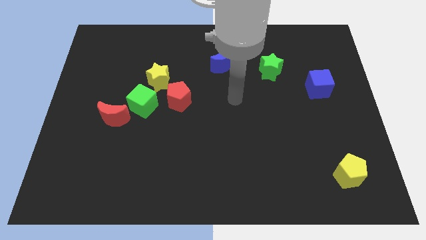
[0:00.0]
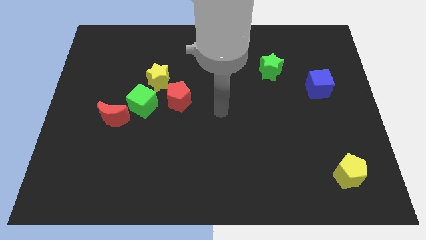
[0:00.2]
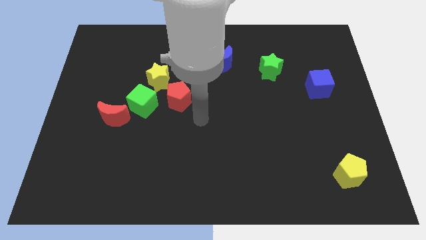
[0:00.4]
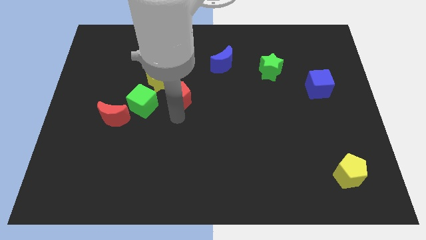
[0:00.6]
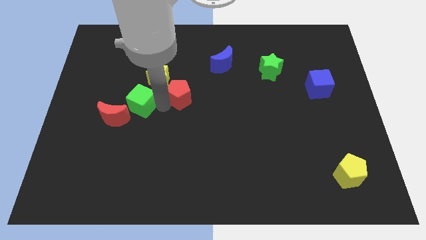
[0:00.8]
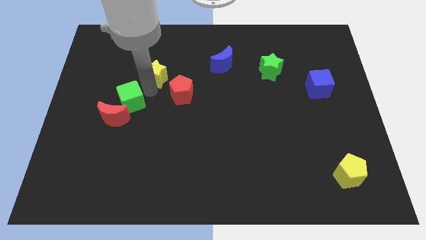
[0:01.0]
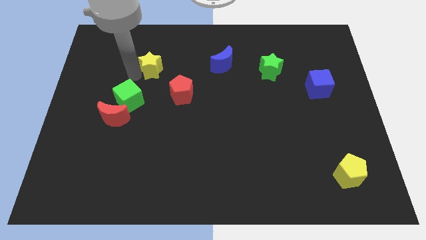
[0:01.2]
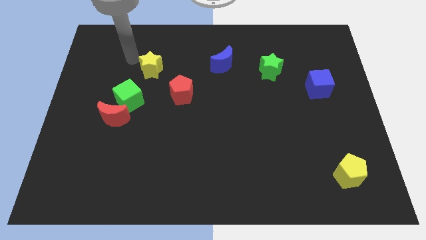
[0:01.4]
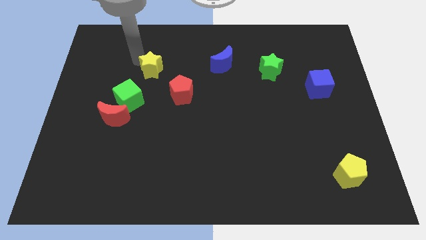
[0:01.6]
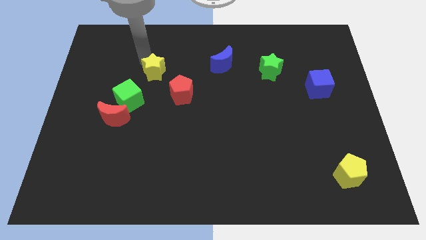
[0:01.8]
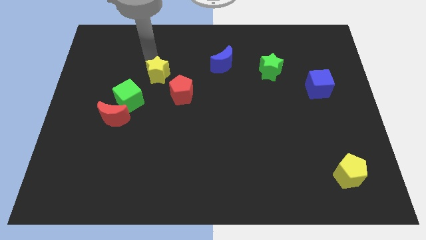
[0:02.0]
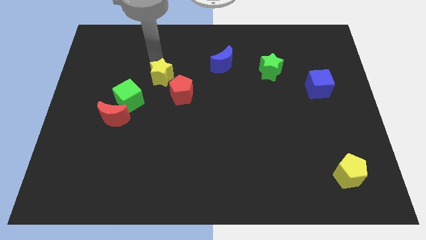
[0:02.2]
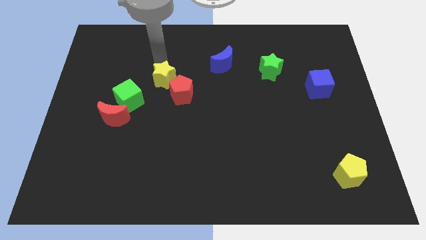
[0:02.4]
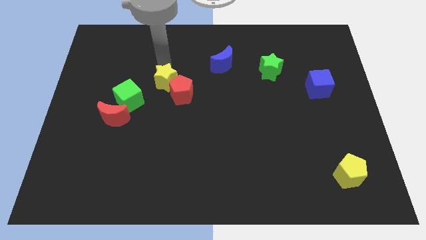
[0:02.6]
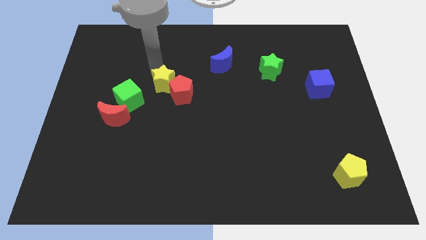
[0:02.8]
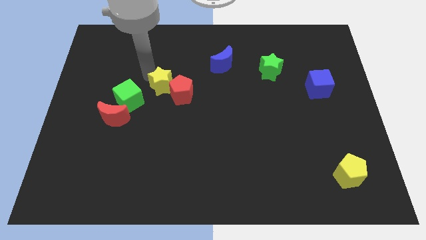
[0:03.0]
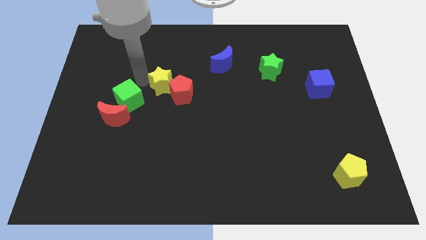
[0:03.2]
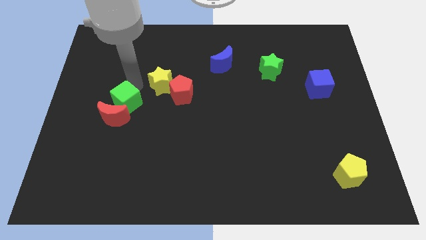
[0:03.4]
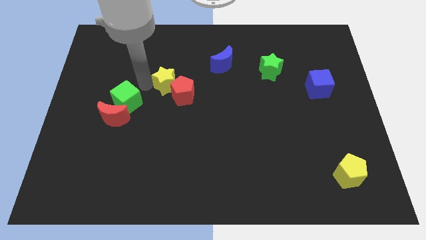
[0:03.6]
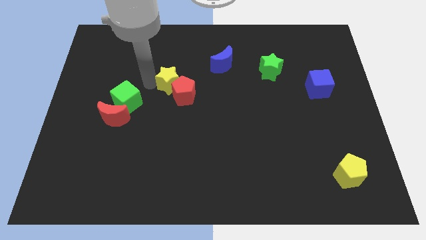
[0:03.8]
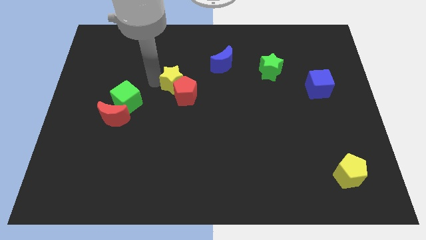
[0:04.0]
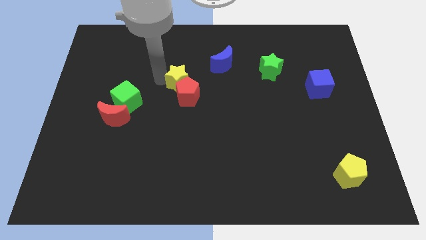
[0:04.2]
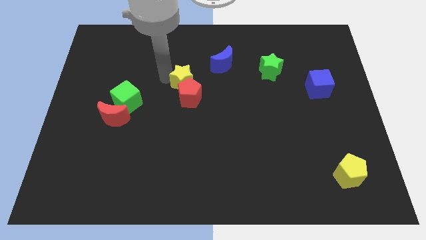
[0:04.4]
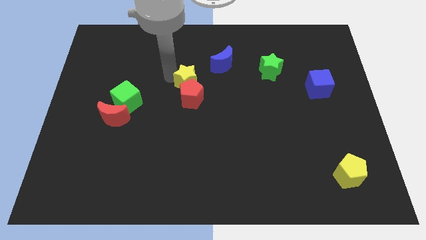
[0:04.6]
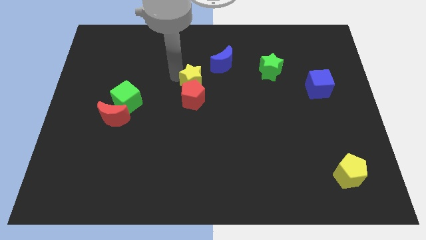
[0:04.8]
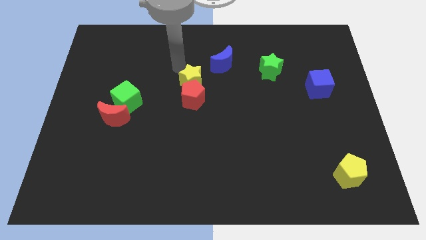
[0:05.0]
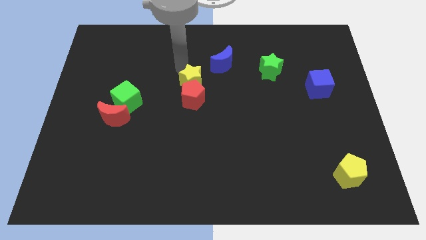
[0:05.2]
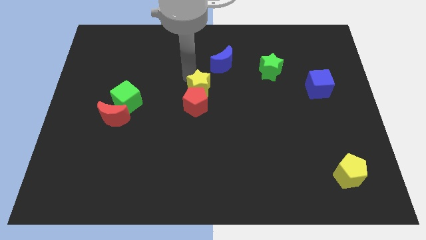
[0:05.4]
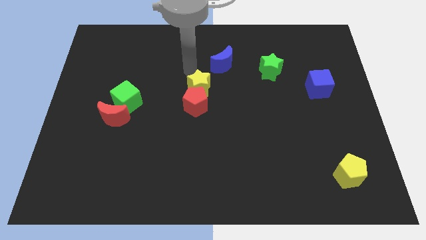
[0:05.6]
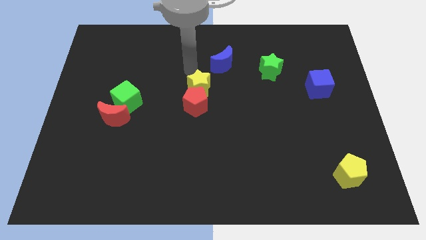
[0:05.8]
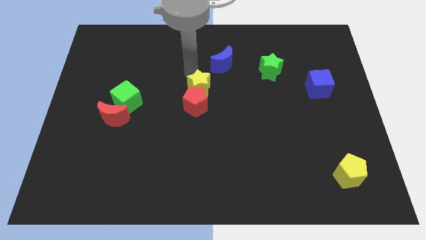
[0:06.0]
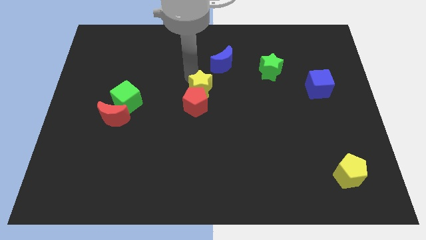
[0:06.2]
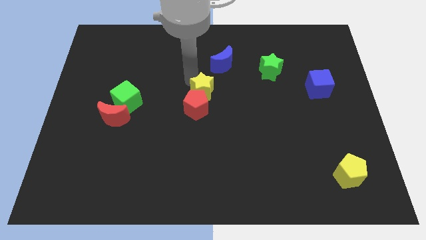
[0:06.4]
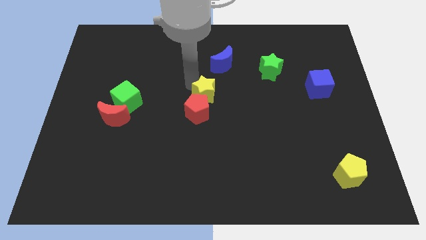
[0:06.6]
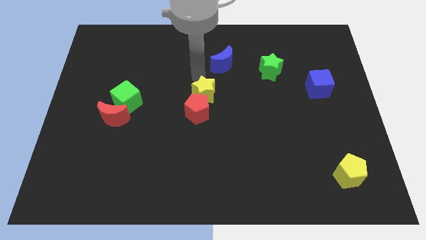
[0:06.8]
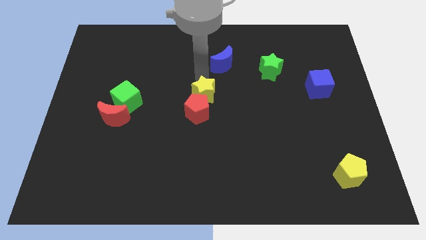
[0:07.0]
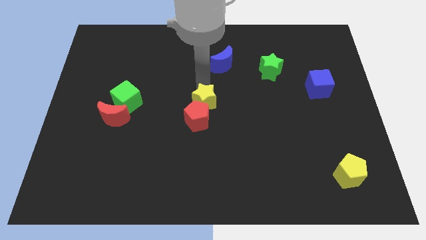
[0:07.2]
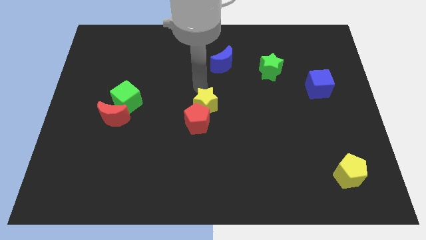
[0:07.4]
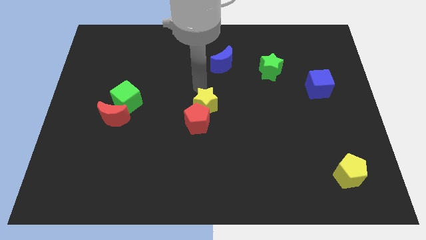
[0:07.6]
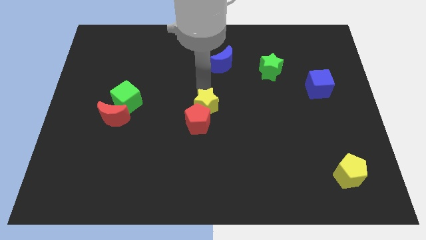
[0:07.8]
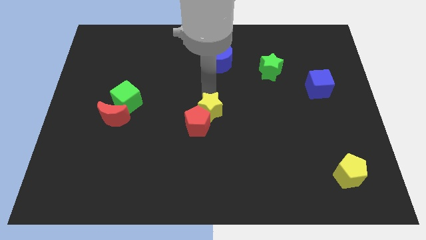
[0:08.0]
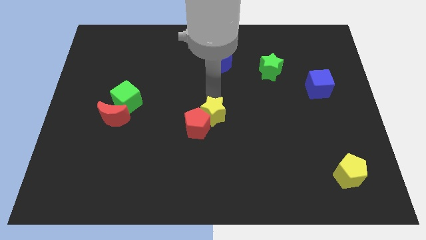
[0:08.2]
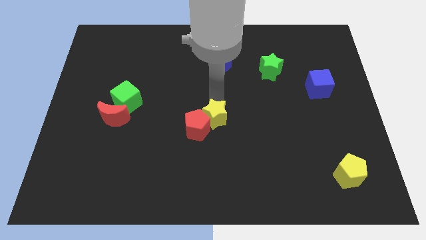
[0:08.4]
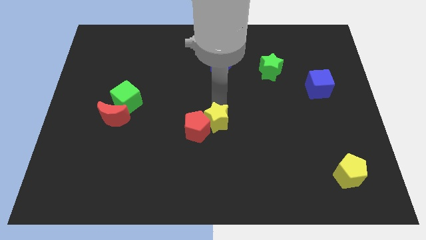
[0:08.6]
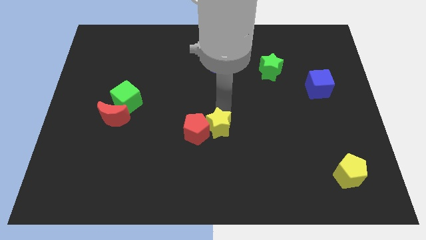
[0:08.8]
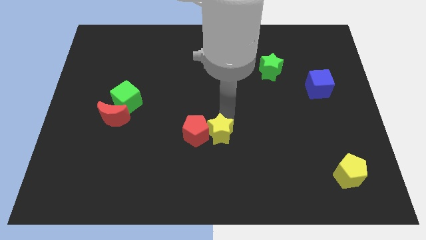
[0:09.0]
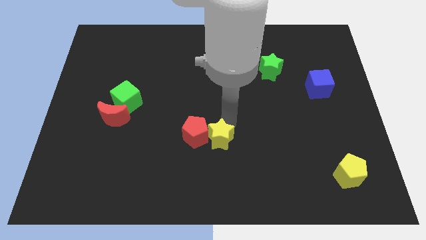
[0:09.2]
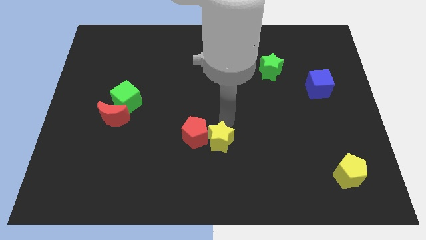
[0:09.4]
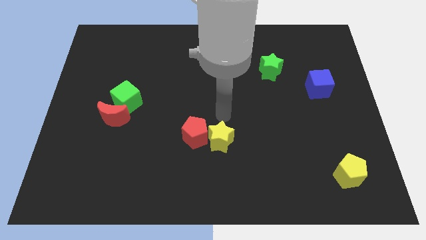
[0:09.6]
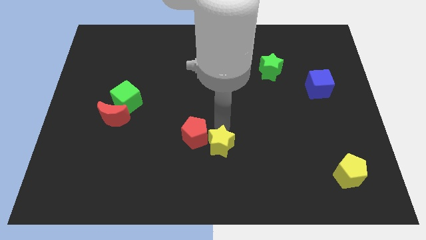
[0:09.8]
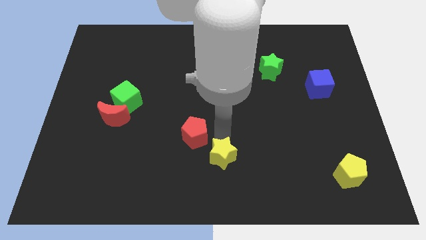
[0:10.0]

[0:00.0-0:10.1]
put the yellow star to the bottom side

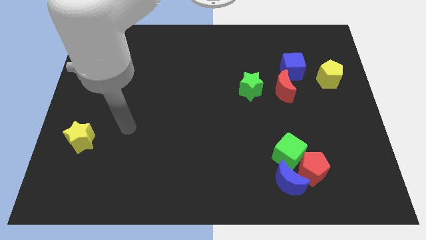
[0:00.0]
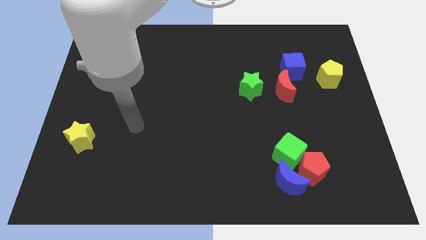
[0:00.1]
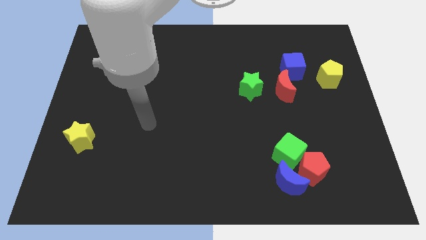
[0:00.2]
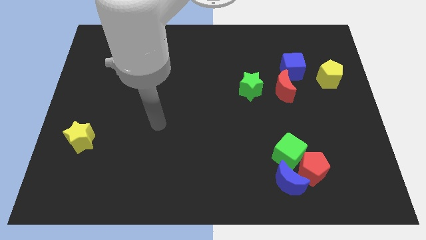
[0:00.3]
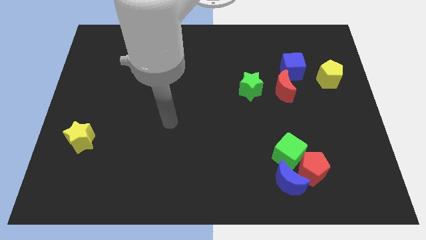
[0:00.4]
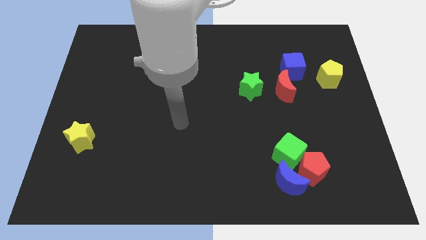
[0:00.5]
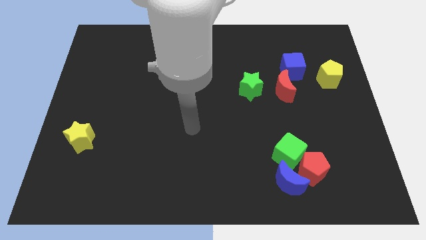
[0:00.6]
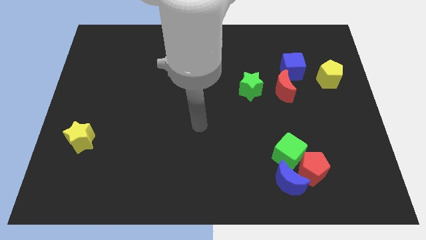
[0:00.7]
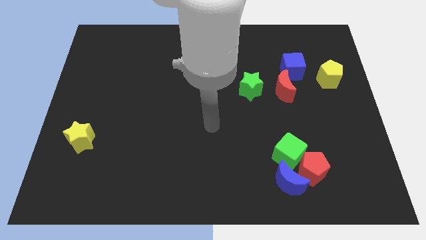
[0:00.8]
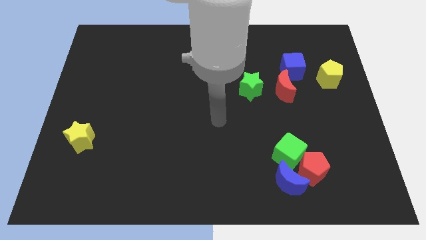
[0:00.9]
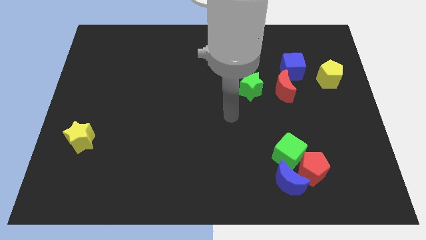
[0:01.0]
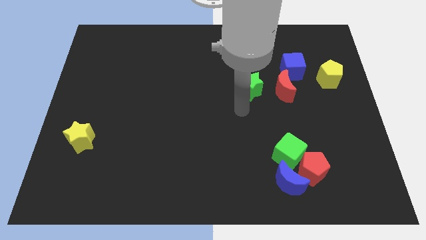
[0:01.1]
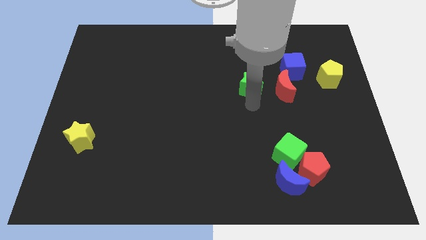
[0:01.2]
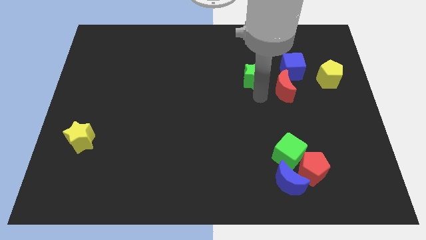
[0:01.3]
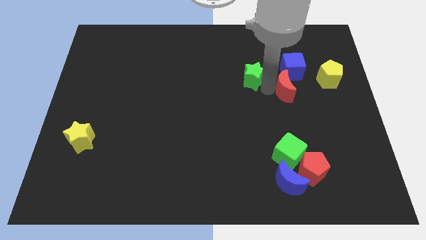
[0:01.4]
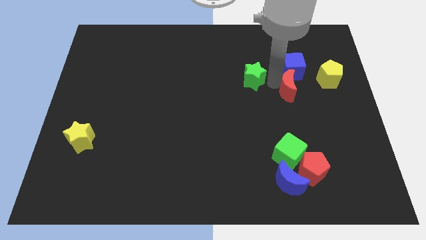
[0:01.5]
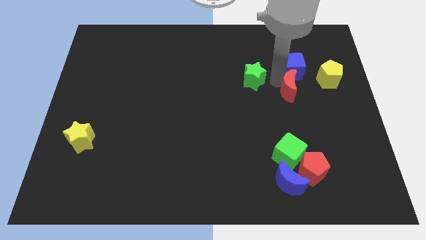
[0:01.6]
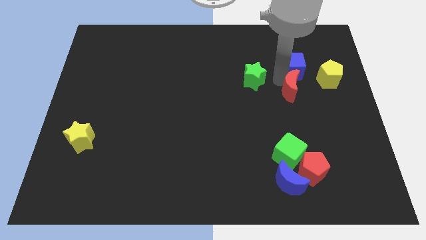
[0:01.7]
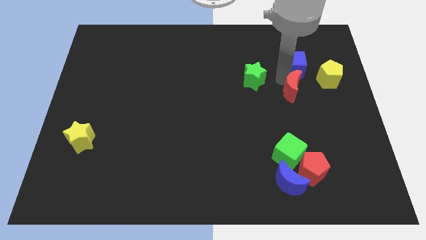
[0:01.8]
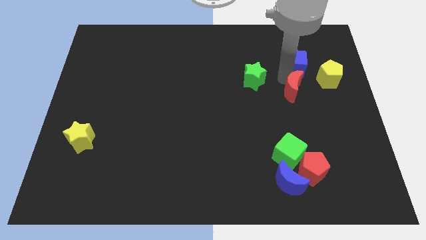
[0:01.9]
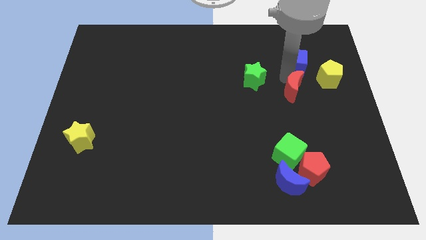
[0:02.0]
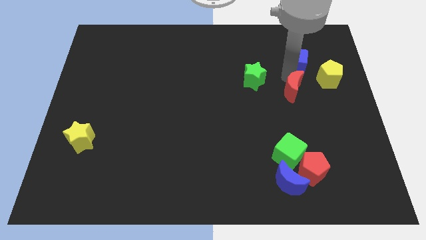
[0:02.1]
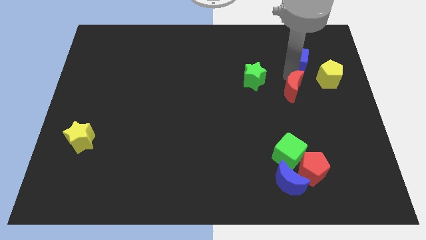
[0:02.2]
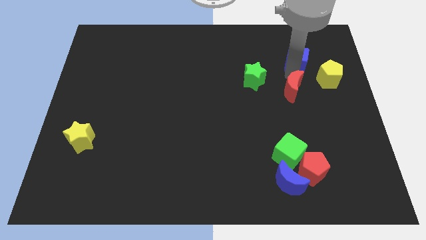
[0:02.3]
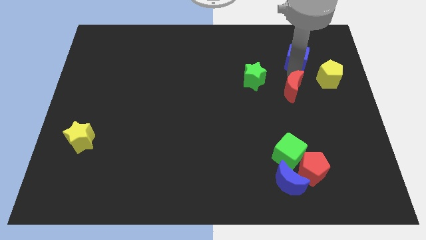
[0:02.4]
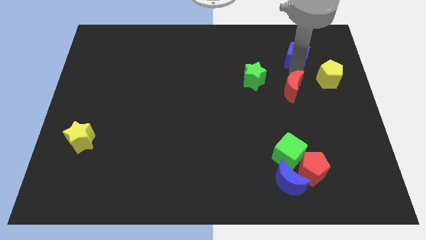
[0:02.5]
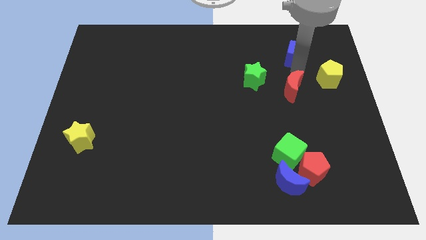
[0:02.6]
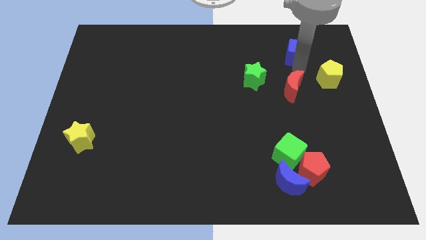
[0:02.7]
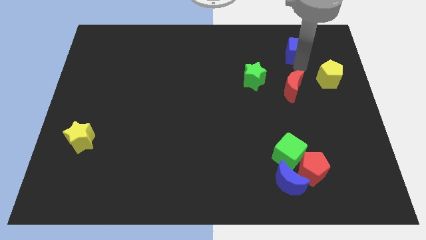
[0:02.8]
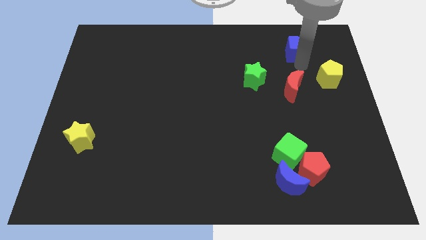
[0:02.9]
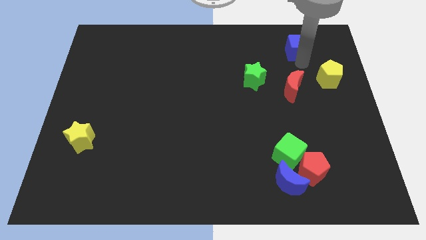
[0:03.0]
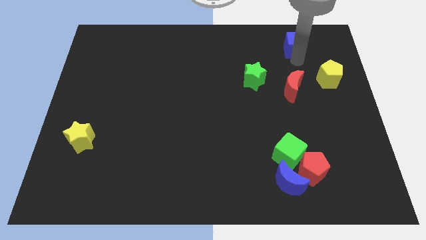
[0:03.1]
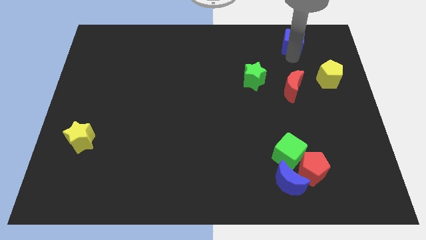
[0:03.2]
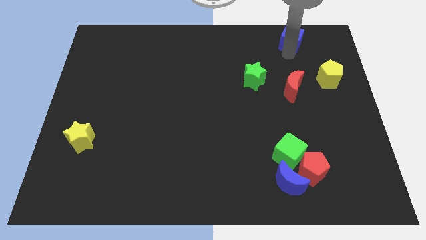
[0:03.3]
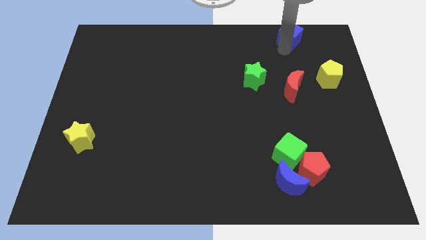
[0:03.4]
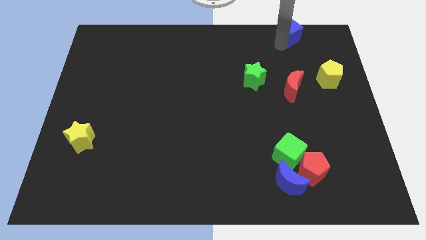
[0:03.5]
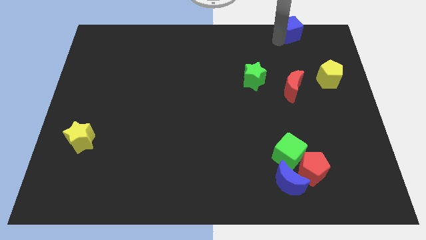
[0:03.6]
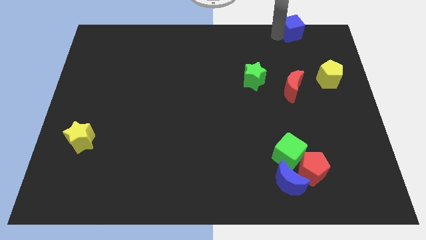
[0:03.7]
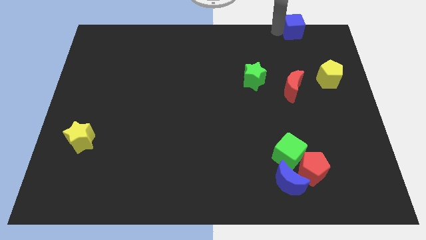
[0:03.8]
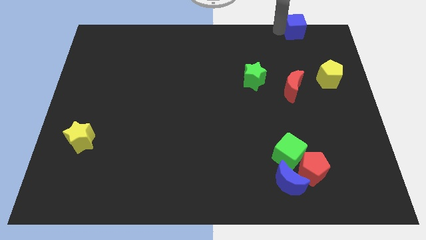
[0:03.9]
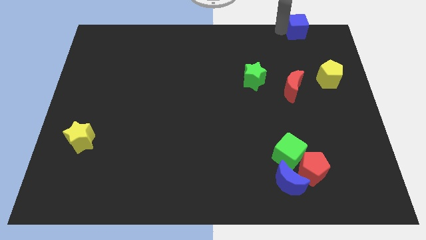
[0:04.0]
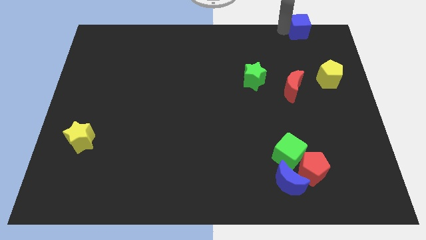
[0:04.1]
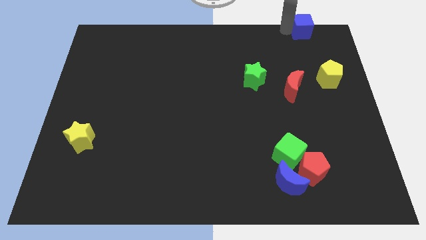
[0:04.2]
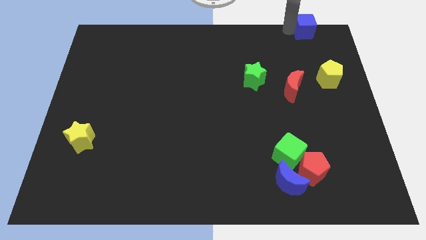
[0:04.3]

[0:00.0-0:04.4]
move the blue cube to the upper right corner
